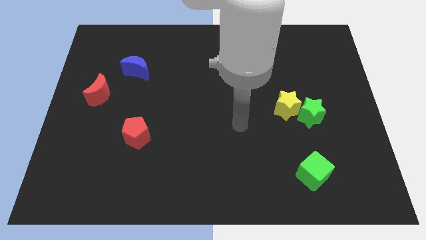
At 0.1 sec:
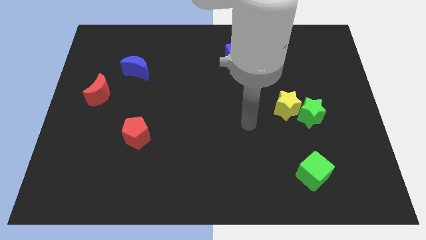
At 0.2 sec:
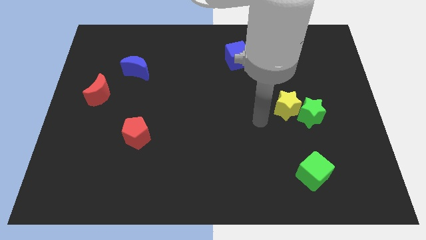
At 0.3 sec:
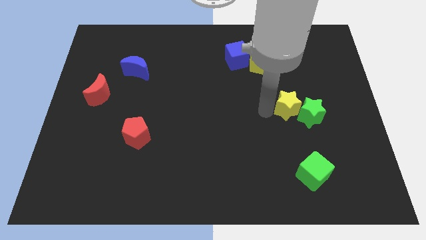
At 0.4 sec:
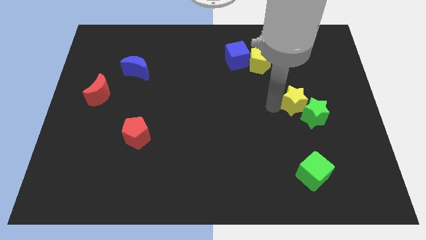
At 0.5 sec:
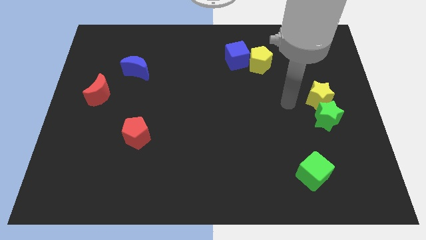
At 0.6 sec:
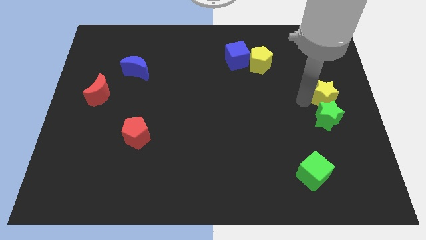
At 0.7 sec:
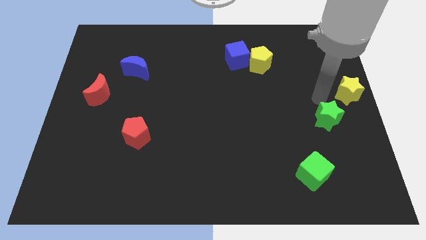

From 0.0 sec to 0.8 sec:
pull the green star apart from the yellow star

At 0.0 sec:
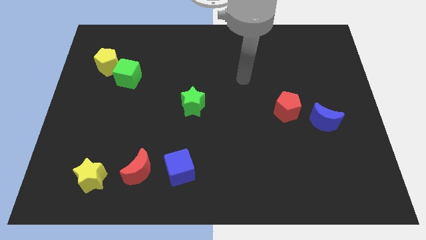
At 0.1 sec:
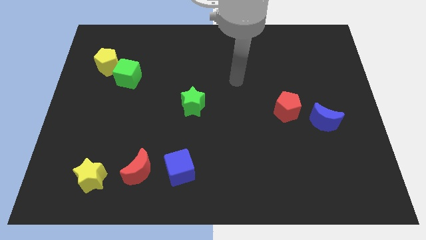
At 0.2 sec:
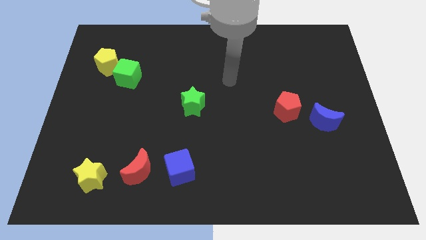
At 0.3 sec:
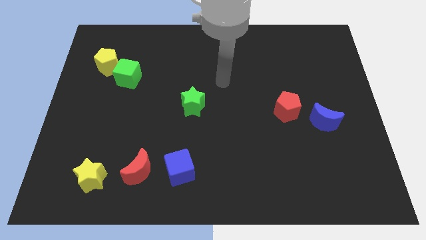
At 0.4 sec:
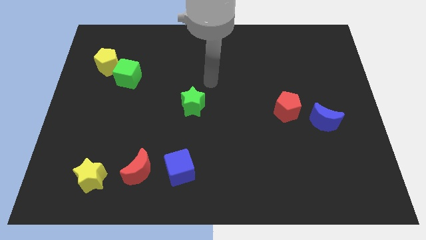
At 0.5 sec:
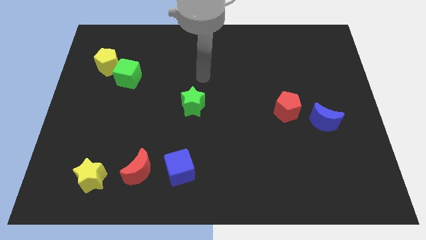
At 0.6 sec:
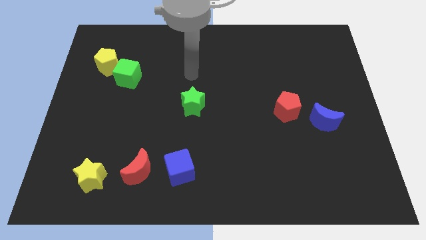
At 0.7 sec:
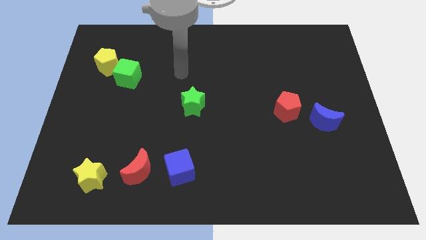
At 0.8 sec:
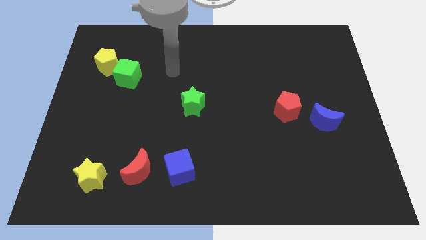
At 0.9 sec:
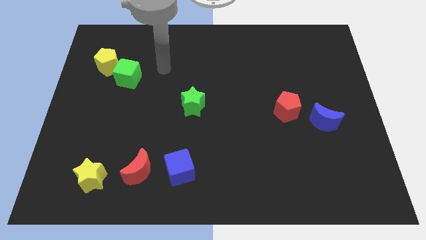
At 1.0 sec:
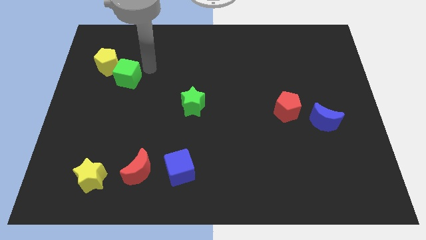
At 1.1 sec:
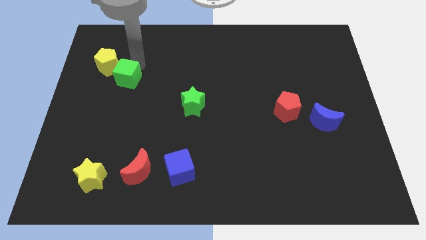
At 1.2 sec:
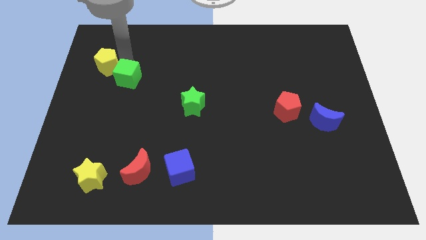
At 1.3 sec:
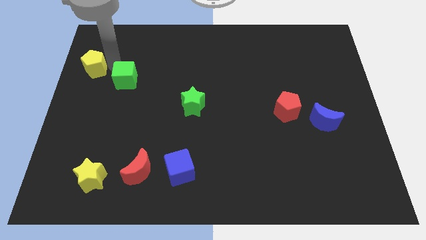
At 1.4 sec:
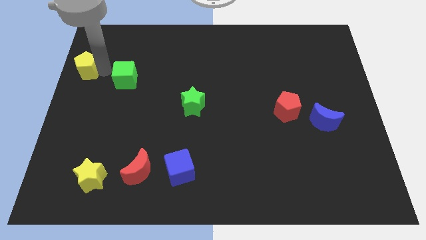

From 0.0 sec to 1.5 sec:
separate the green cube from the yellow pentagon

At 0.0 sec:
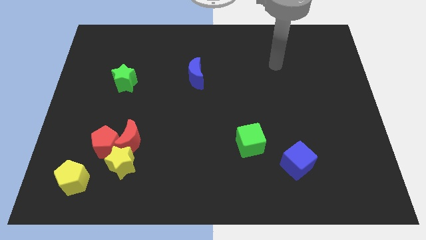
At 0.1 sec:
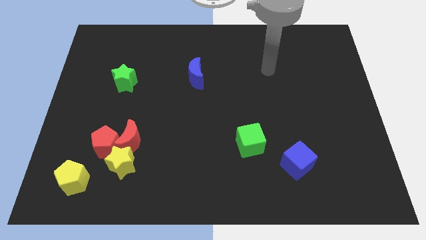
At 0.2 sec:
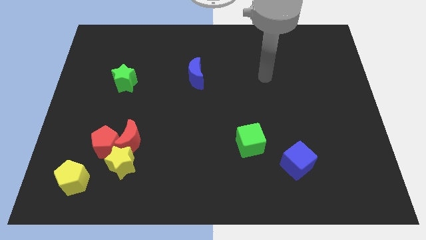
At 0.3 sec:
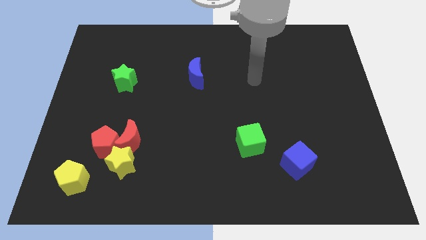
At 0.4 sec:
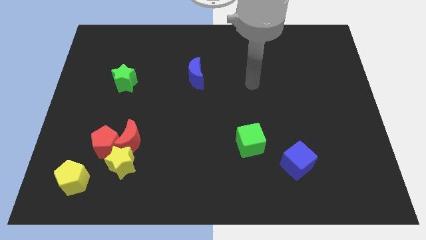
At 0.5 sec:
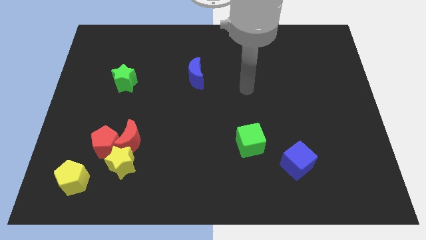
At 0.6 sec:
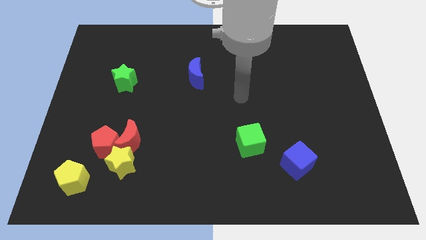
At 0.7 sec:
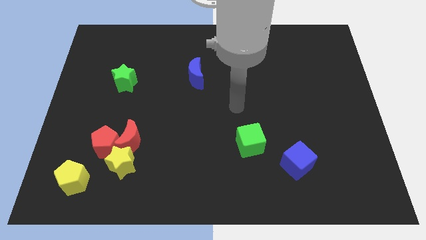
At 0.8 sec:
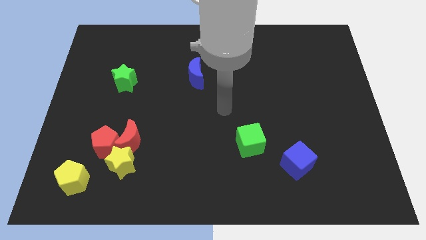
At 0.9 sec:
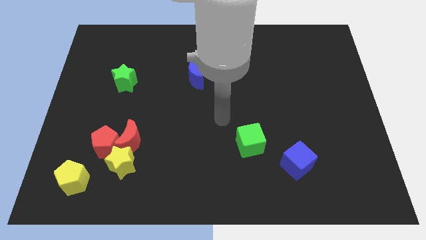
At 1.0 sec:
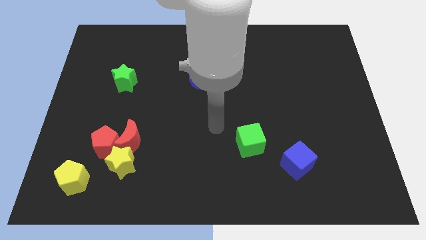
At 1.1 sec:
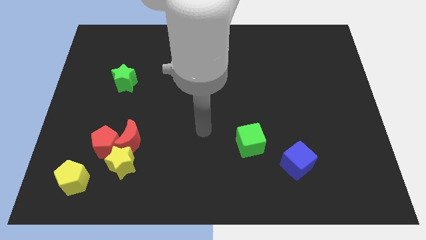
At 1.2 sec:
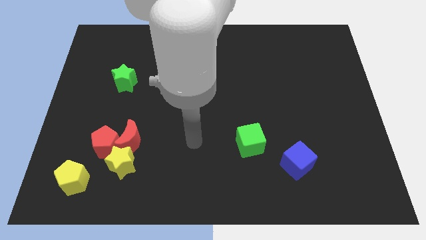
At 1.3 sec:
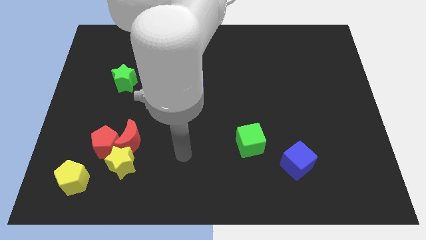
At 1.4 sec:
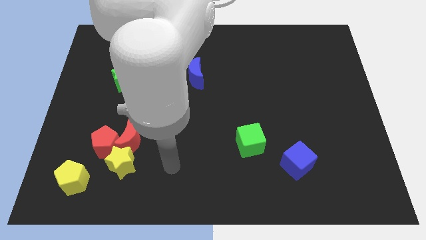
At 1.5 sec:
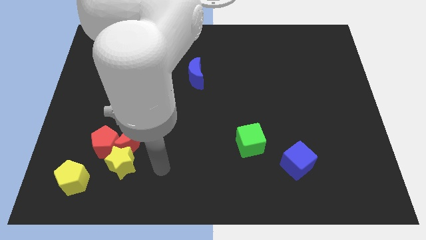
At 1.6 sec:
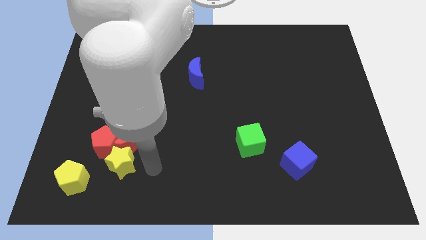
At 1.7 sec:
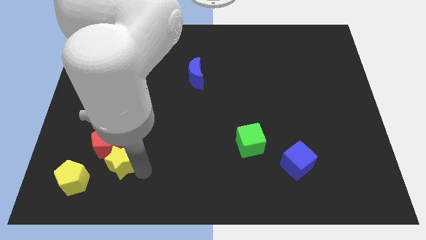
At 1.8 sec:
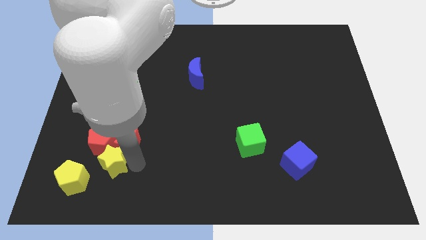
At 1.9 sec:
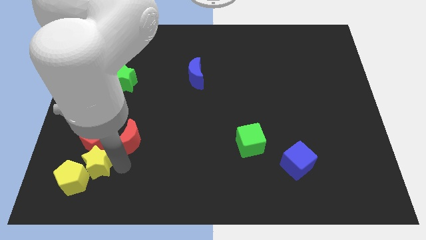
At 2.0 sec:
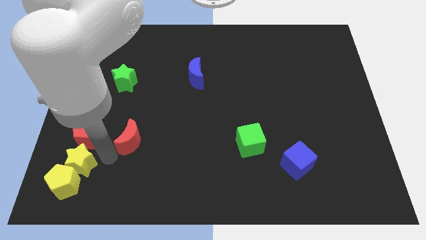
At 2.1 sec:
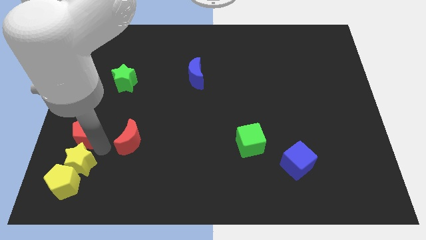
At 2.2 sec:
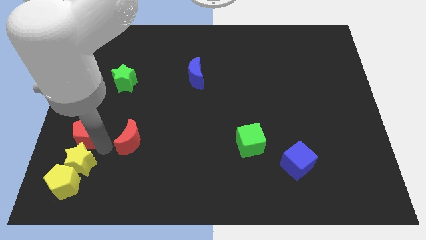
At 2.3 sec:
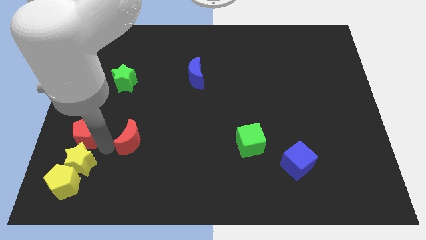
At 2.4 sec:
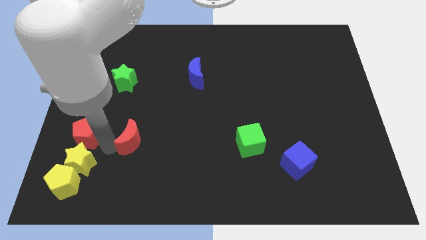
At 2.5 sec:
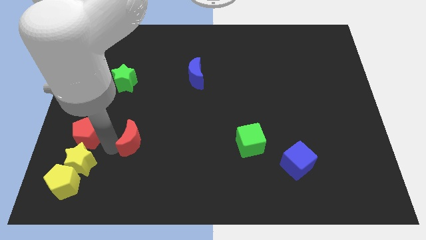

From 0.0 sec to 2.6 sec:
pull the red moon apart from the red pentagon and yellow star

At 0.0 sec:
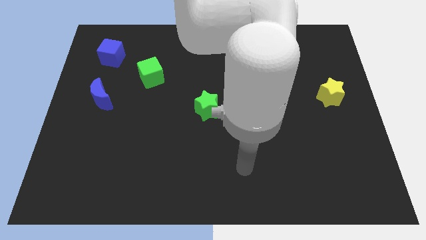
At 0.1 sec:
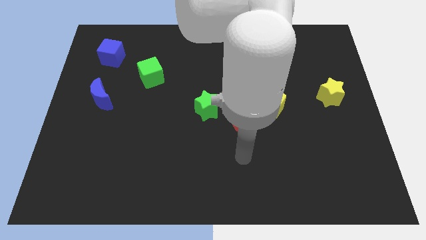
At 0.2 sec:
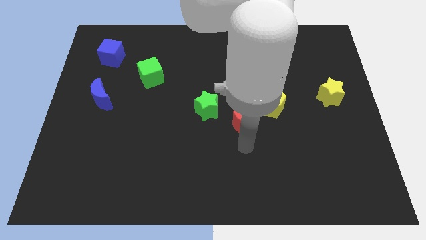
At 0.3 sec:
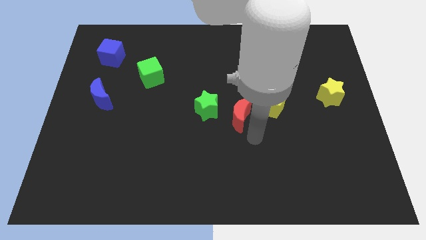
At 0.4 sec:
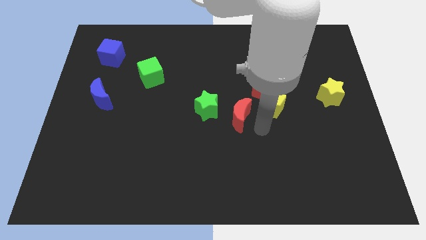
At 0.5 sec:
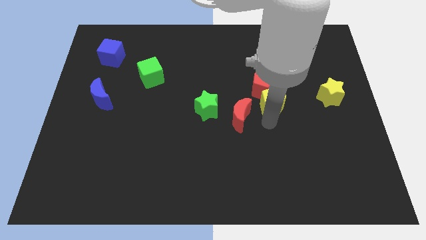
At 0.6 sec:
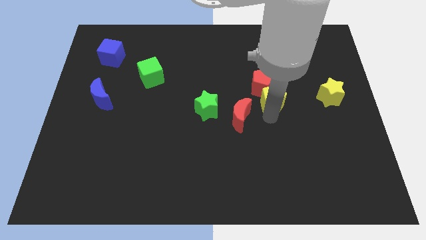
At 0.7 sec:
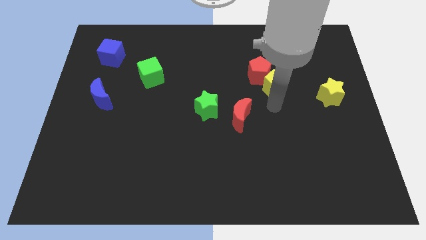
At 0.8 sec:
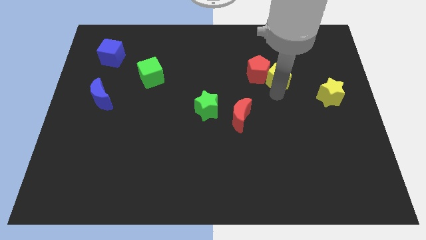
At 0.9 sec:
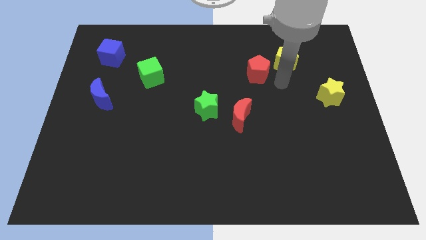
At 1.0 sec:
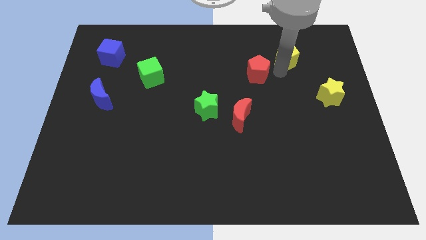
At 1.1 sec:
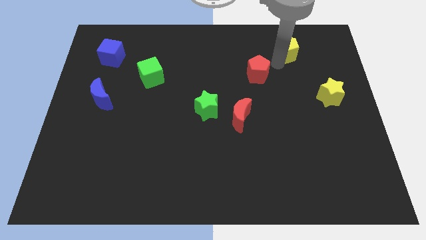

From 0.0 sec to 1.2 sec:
pull the red pentagon apart from the yellow pentagon

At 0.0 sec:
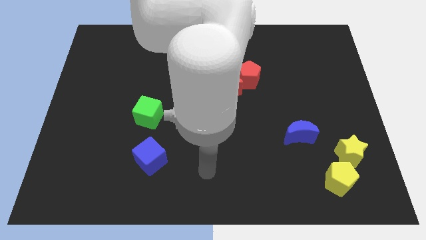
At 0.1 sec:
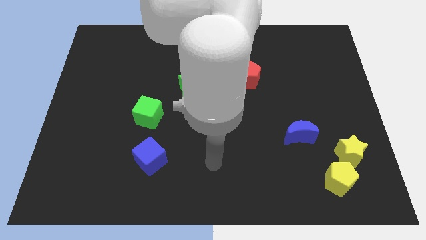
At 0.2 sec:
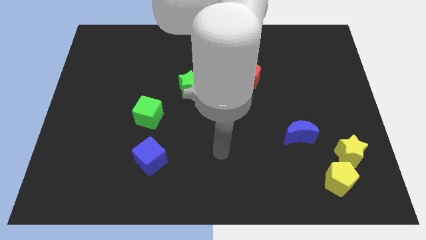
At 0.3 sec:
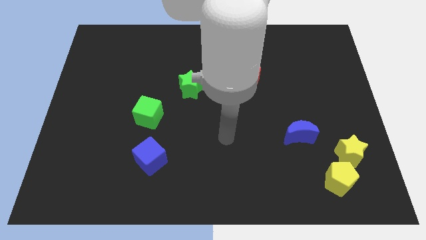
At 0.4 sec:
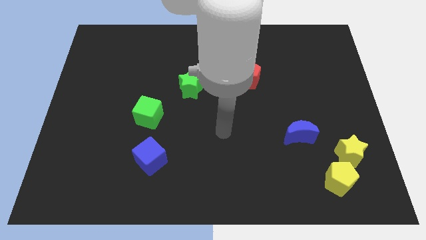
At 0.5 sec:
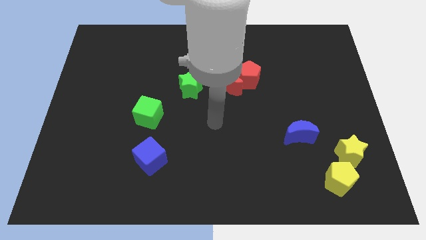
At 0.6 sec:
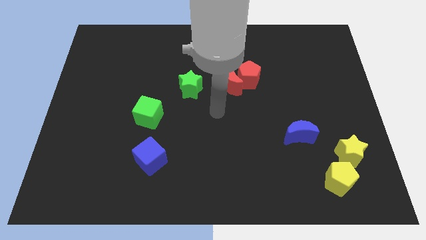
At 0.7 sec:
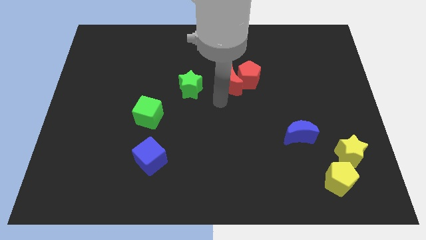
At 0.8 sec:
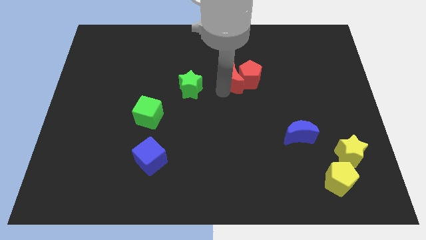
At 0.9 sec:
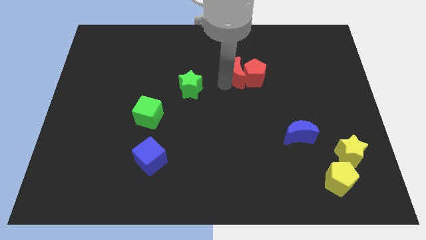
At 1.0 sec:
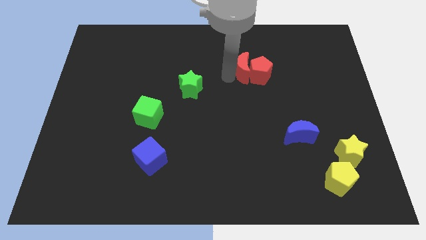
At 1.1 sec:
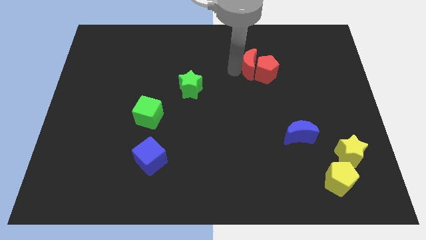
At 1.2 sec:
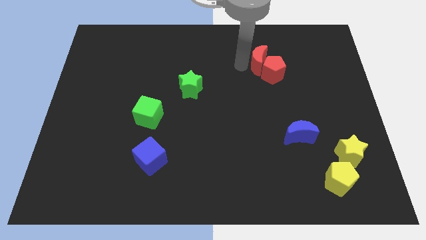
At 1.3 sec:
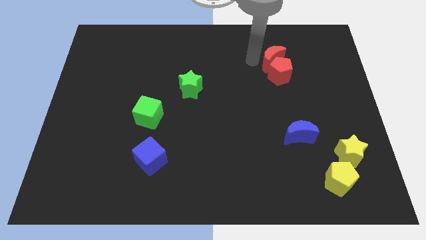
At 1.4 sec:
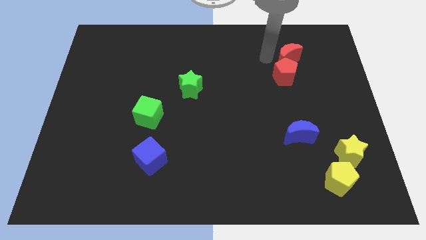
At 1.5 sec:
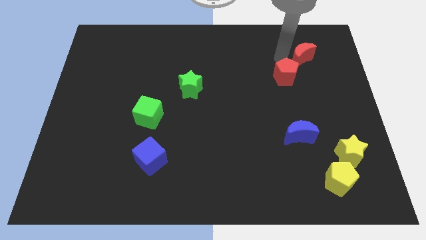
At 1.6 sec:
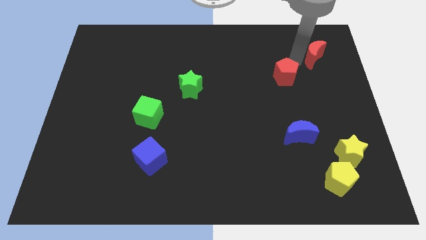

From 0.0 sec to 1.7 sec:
pull the red pentagon apart from the red moon

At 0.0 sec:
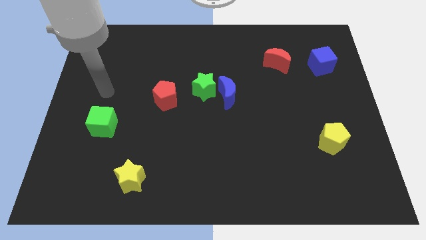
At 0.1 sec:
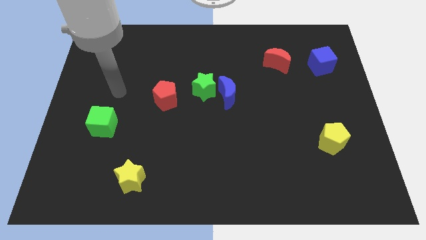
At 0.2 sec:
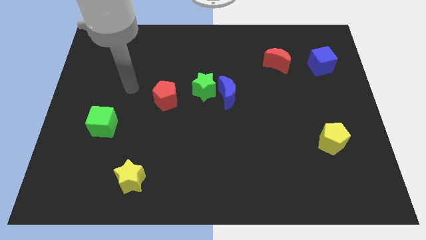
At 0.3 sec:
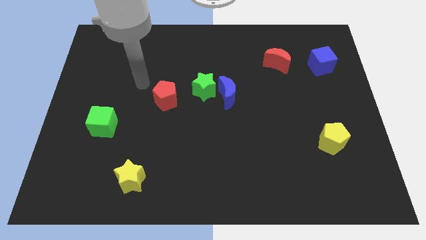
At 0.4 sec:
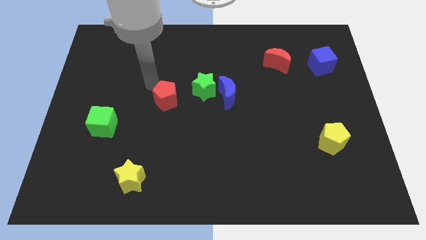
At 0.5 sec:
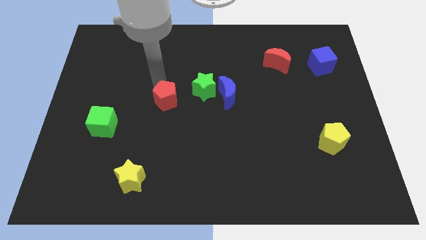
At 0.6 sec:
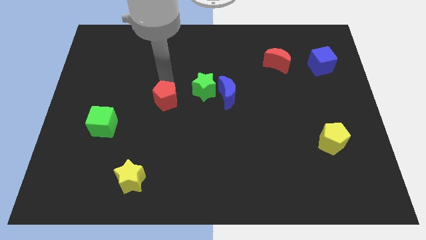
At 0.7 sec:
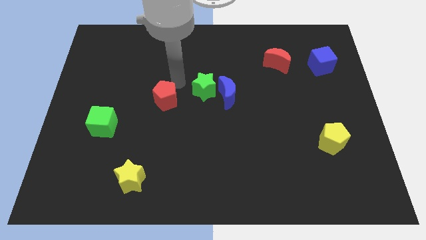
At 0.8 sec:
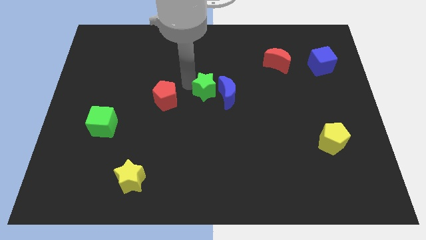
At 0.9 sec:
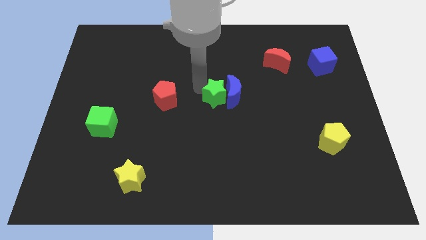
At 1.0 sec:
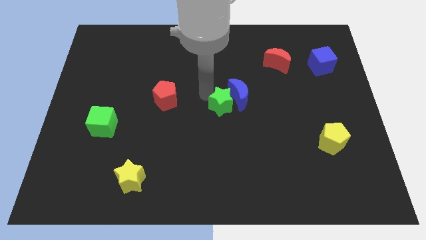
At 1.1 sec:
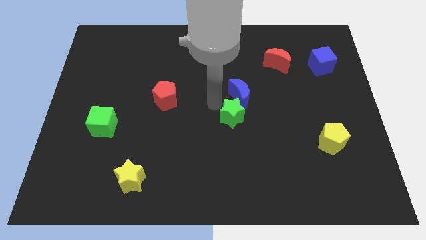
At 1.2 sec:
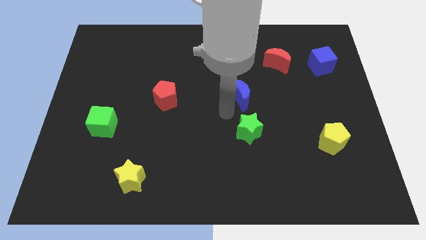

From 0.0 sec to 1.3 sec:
move the blue moon away from the green star
